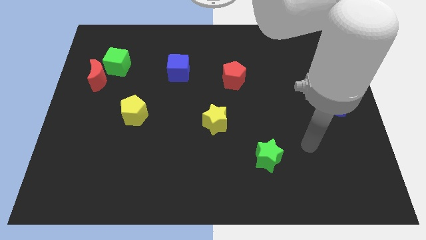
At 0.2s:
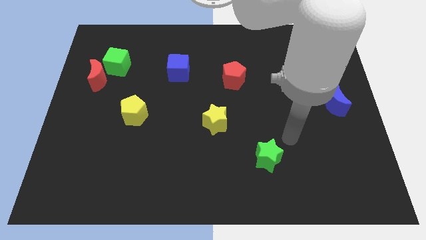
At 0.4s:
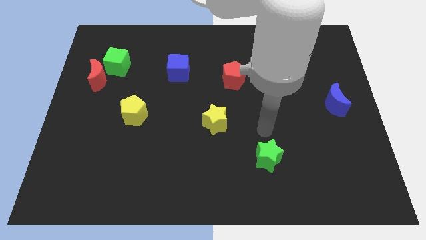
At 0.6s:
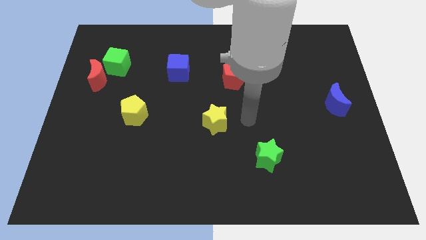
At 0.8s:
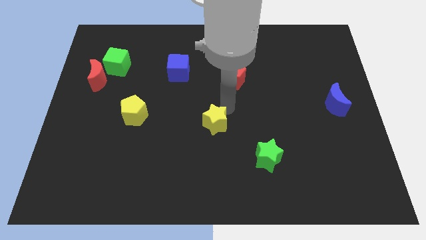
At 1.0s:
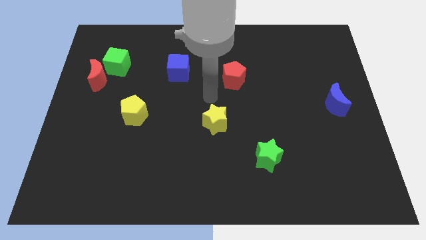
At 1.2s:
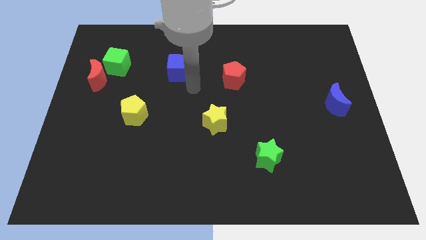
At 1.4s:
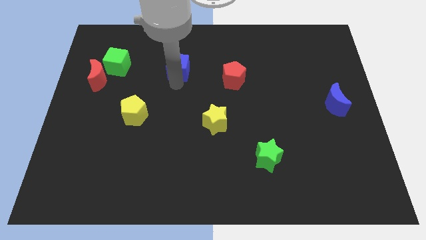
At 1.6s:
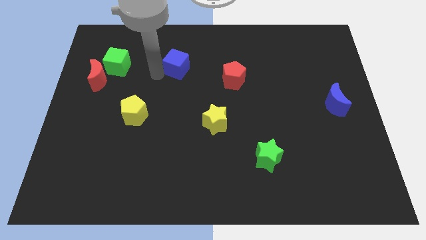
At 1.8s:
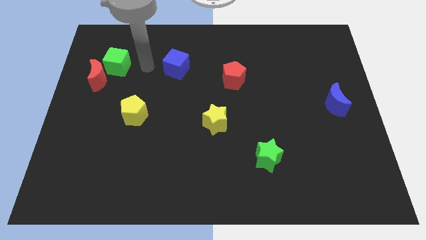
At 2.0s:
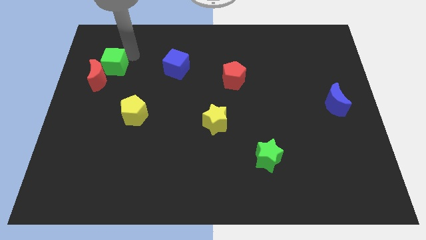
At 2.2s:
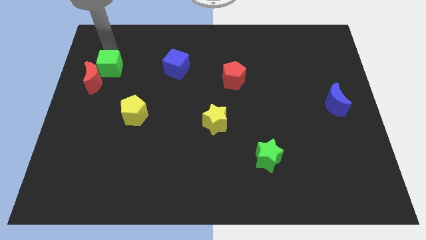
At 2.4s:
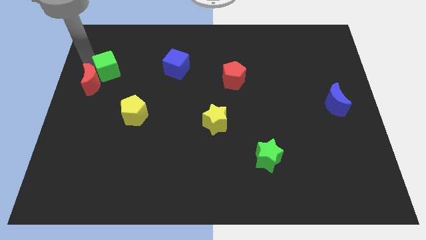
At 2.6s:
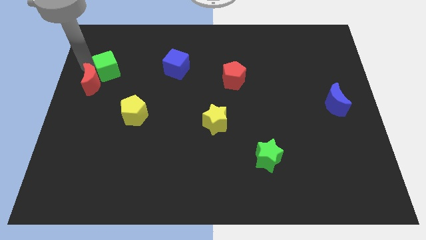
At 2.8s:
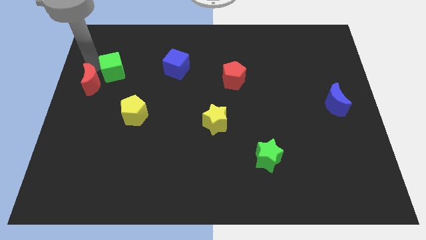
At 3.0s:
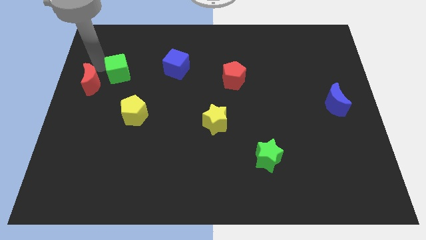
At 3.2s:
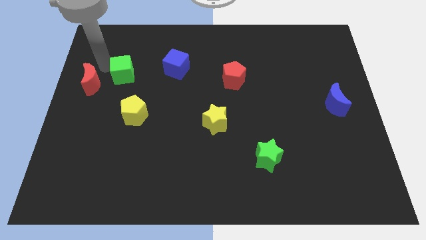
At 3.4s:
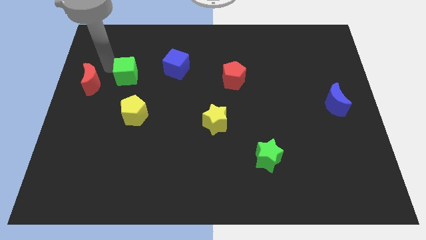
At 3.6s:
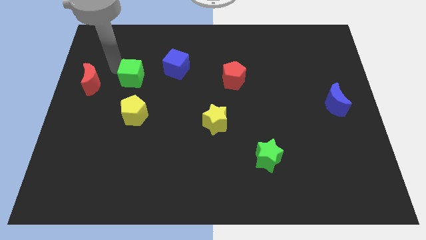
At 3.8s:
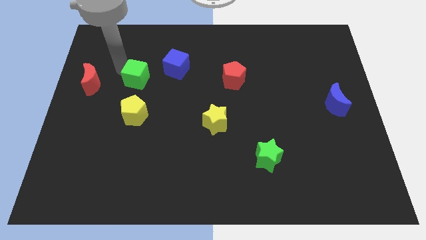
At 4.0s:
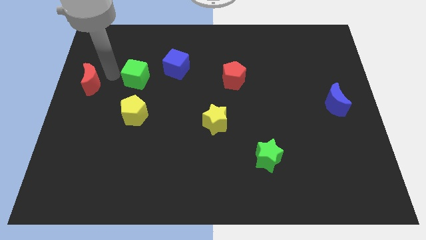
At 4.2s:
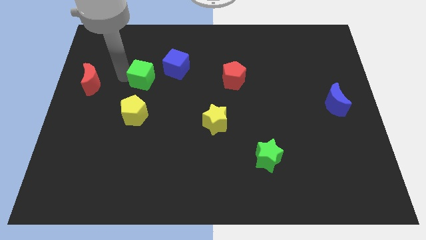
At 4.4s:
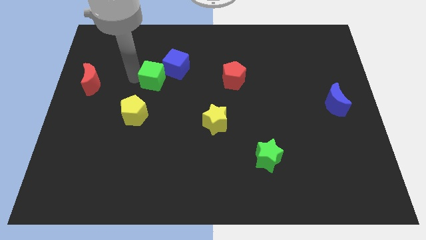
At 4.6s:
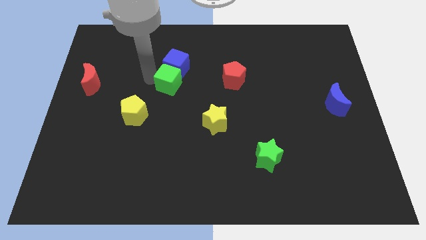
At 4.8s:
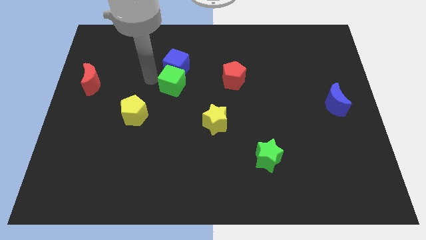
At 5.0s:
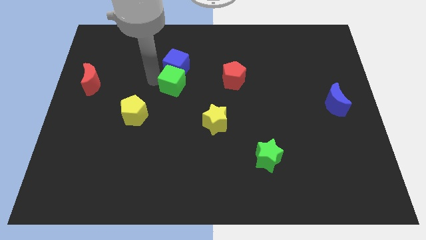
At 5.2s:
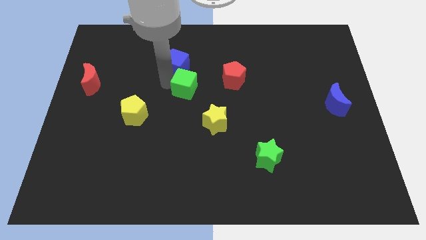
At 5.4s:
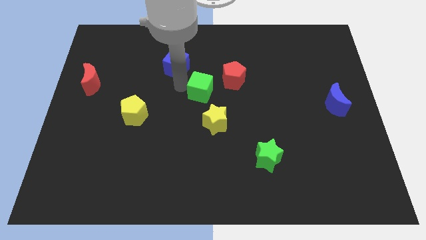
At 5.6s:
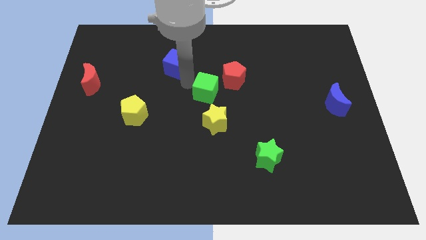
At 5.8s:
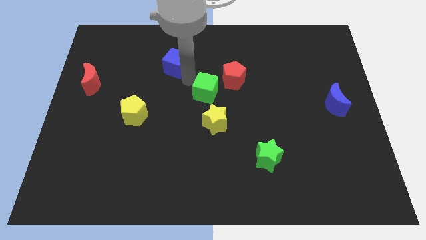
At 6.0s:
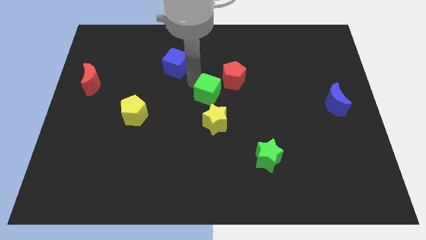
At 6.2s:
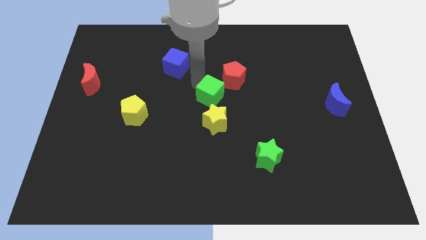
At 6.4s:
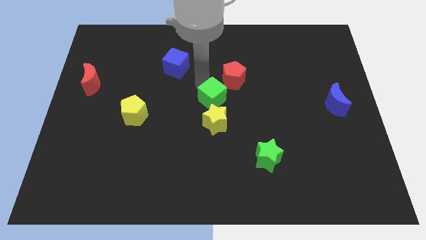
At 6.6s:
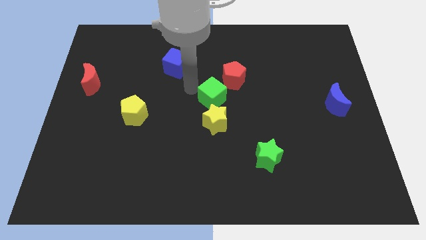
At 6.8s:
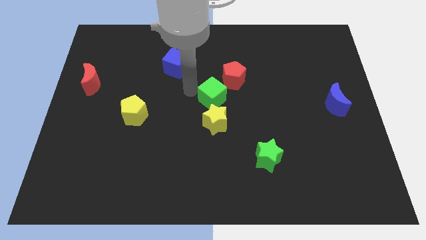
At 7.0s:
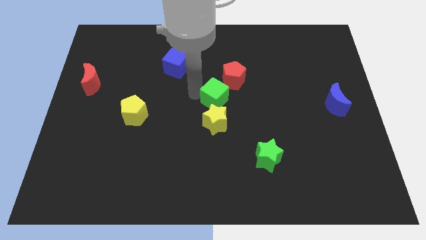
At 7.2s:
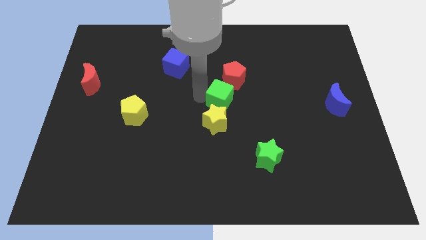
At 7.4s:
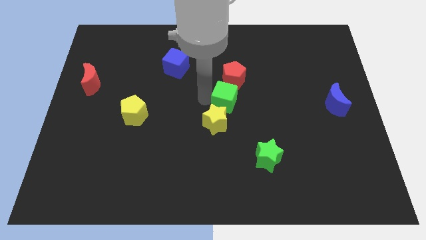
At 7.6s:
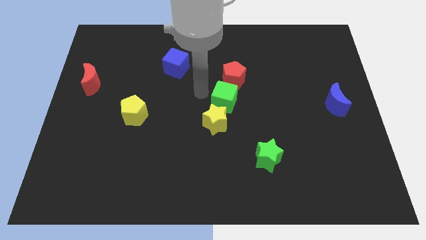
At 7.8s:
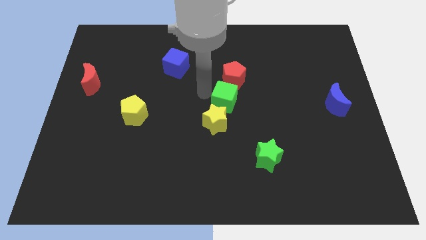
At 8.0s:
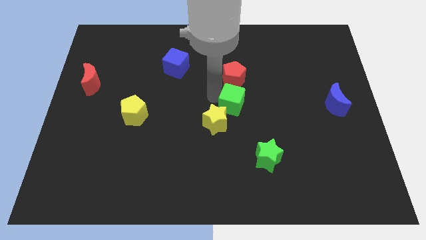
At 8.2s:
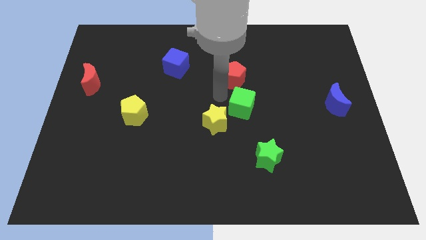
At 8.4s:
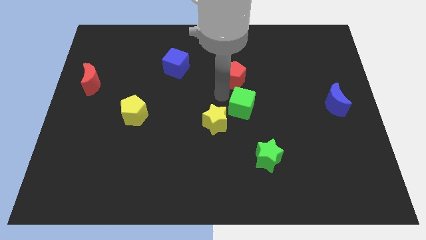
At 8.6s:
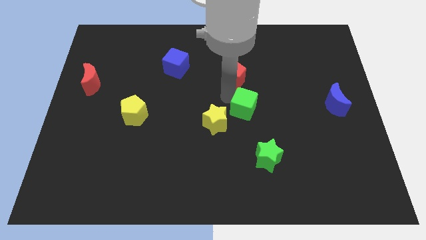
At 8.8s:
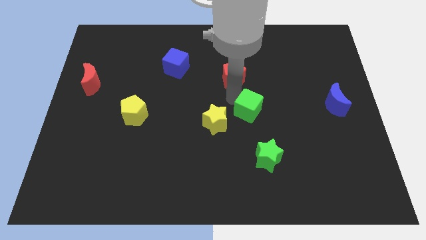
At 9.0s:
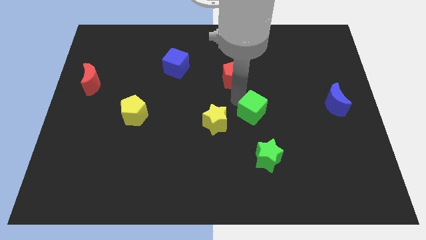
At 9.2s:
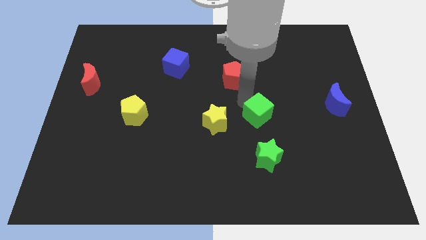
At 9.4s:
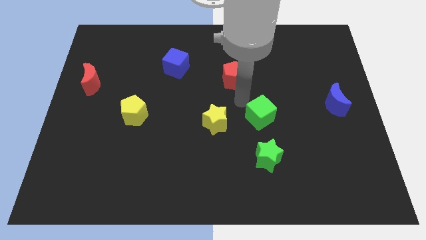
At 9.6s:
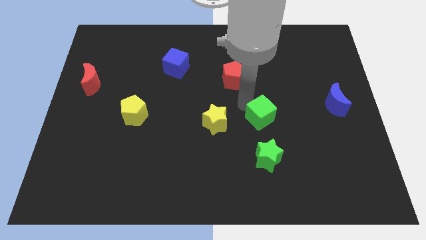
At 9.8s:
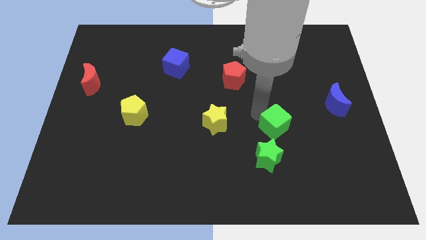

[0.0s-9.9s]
push the green cube to the top right side of the green star

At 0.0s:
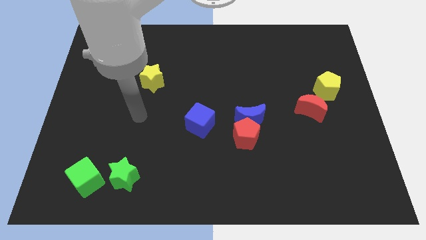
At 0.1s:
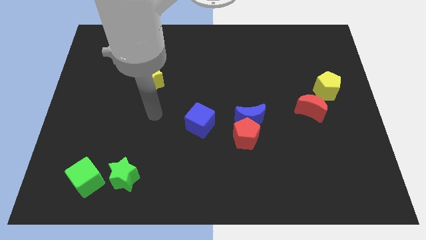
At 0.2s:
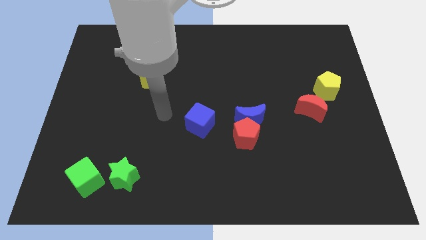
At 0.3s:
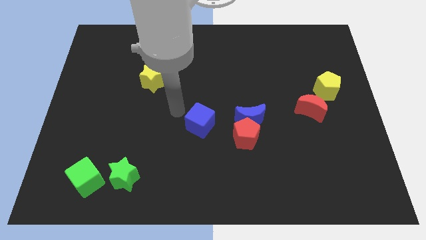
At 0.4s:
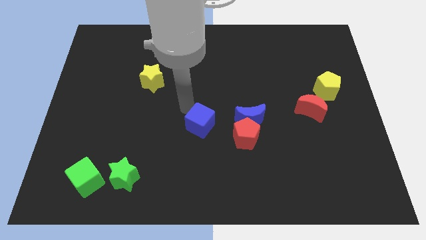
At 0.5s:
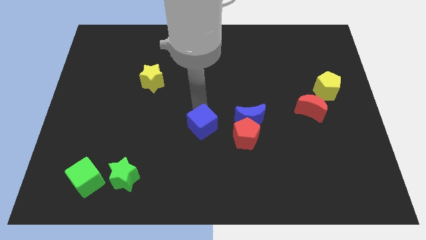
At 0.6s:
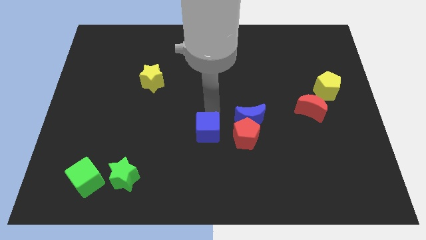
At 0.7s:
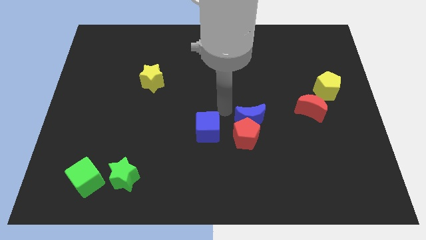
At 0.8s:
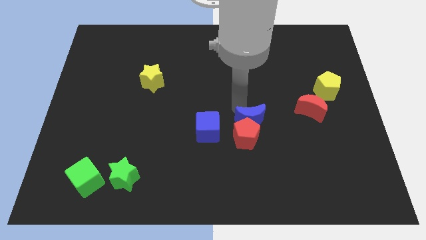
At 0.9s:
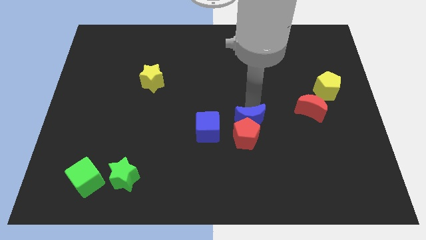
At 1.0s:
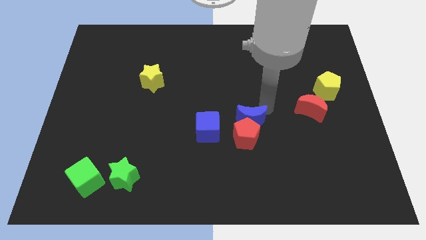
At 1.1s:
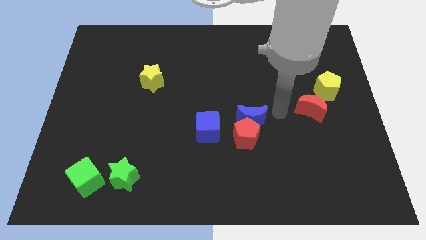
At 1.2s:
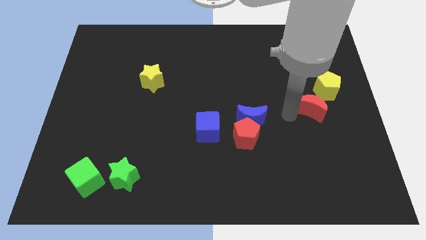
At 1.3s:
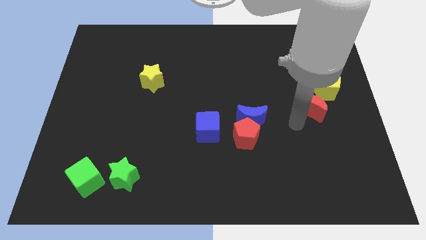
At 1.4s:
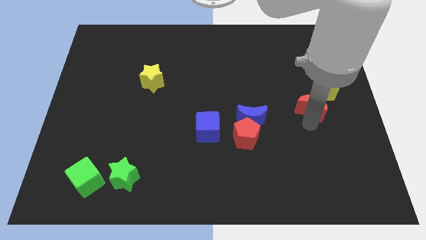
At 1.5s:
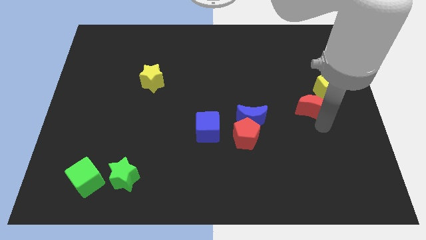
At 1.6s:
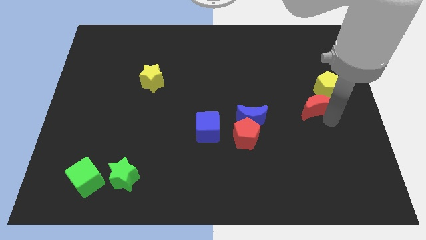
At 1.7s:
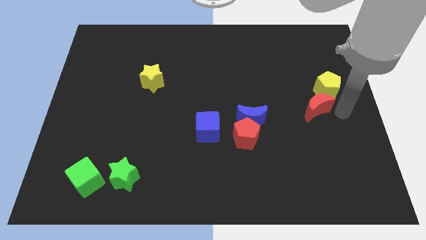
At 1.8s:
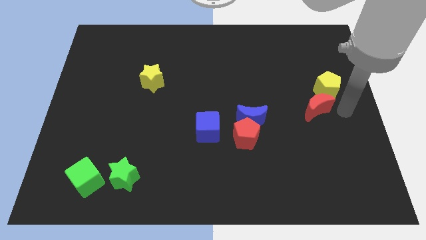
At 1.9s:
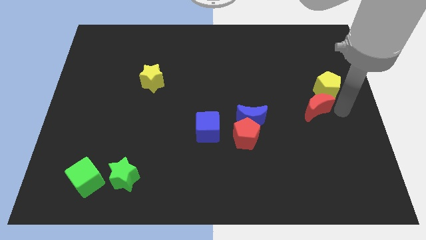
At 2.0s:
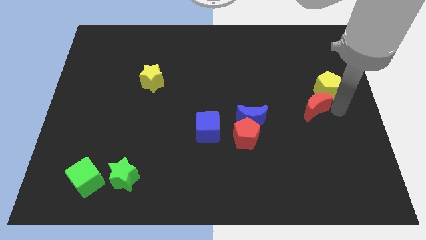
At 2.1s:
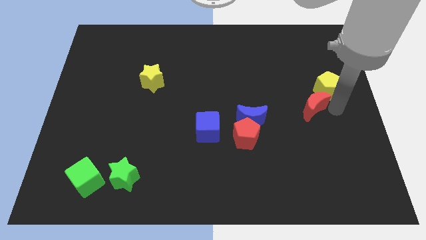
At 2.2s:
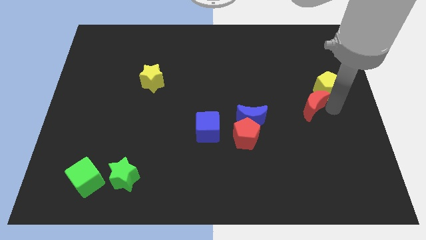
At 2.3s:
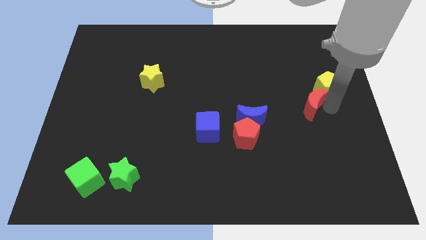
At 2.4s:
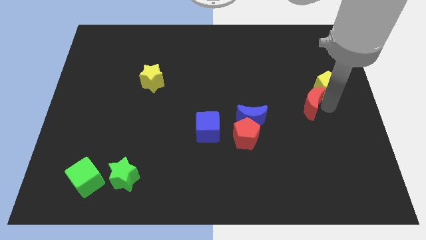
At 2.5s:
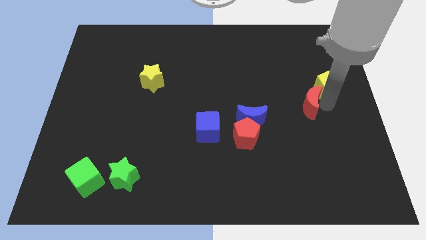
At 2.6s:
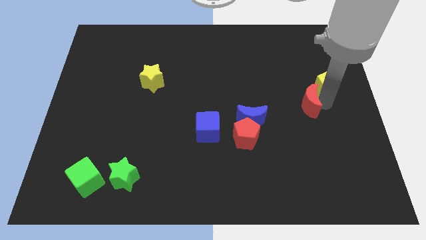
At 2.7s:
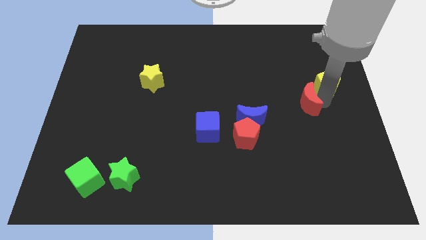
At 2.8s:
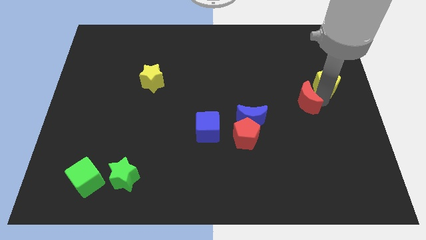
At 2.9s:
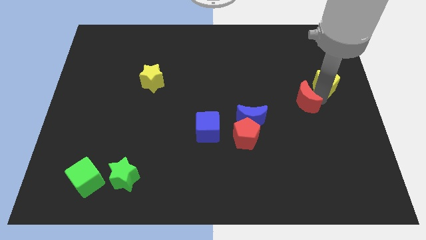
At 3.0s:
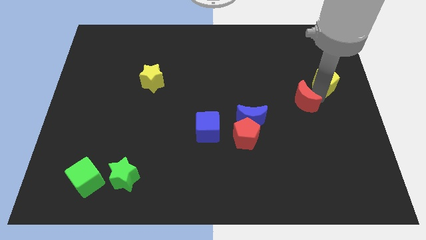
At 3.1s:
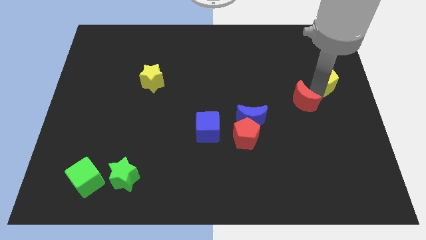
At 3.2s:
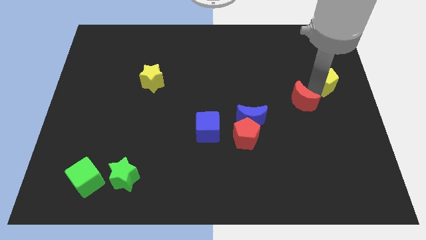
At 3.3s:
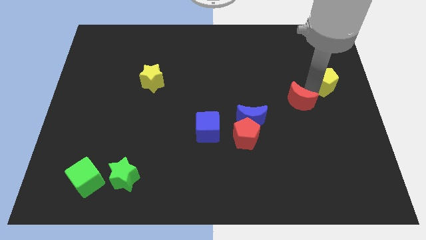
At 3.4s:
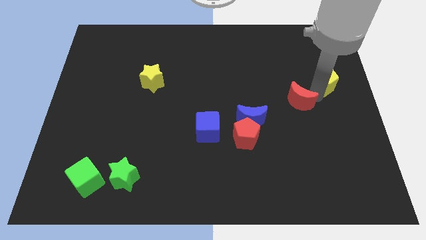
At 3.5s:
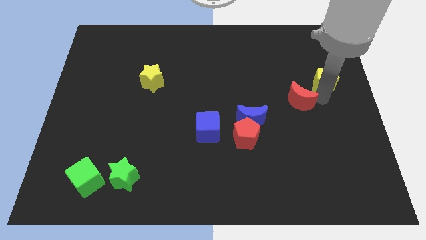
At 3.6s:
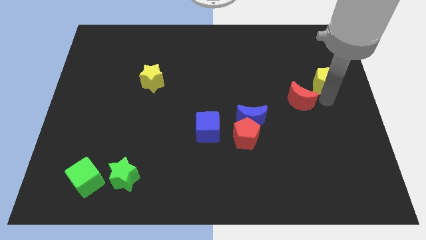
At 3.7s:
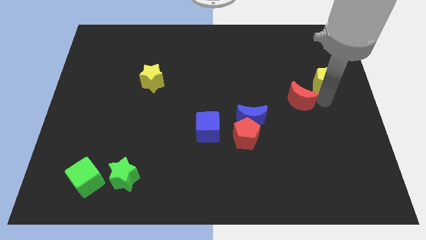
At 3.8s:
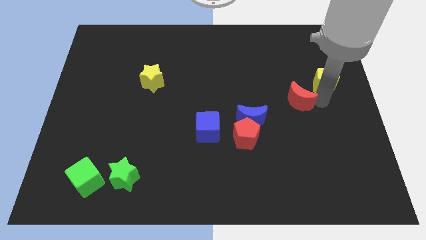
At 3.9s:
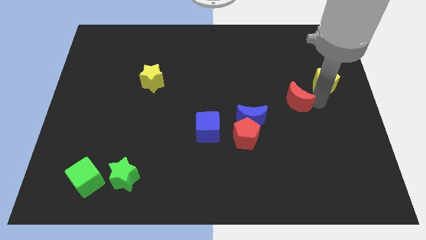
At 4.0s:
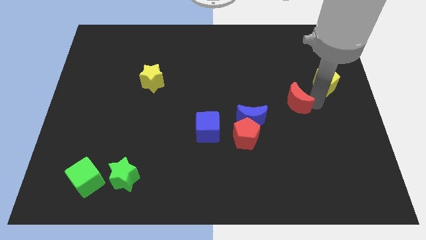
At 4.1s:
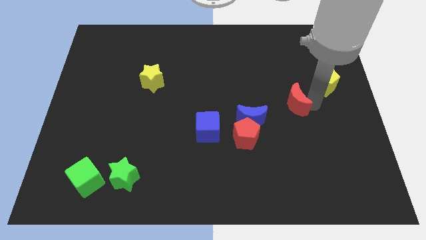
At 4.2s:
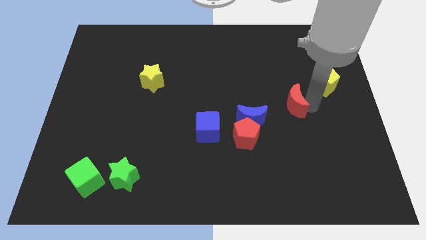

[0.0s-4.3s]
put the red moon to the top right of the blue moon
